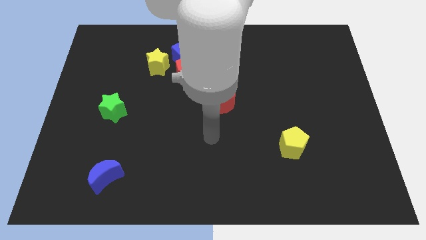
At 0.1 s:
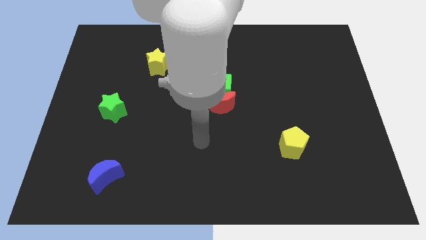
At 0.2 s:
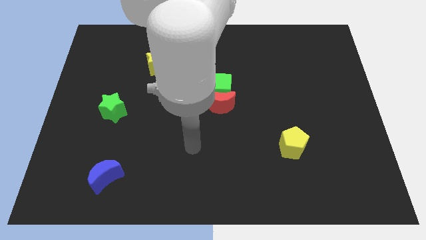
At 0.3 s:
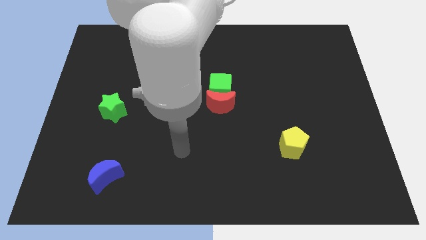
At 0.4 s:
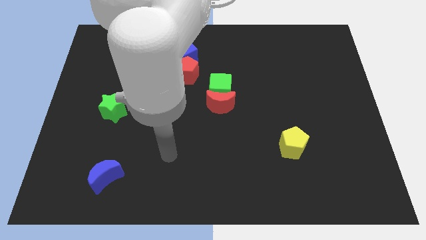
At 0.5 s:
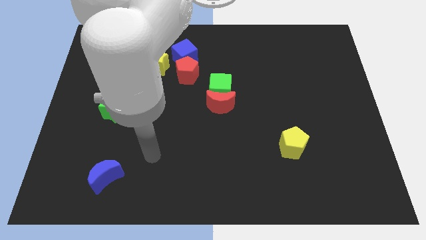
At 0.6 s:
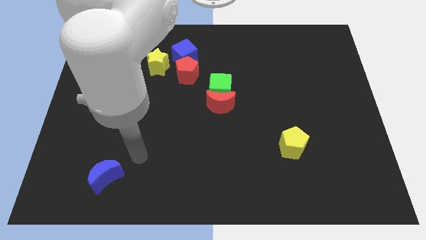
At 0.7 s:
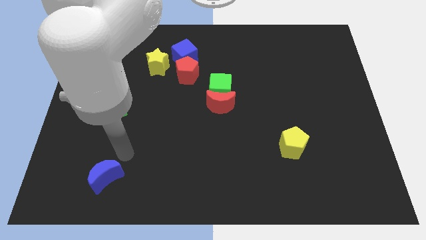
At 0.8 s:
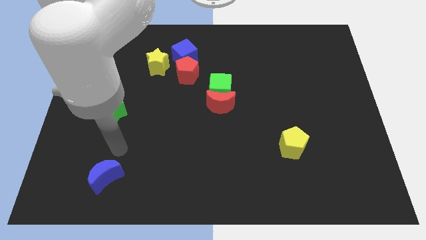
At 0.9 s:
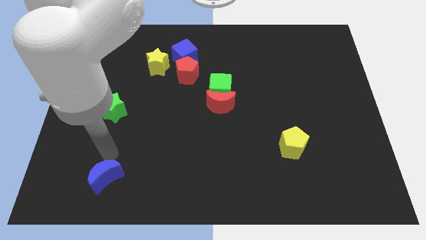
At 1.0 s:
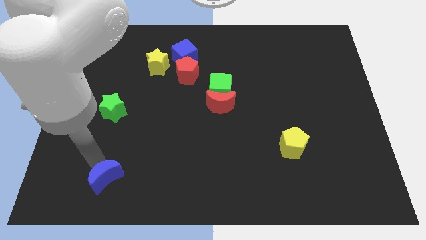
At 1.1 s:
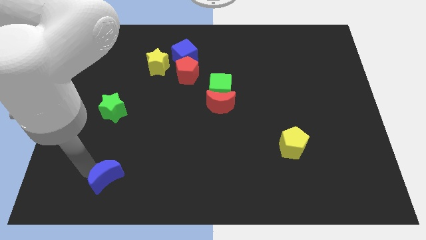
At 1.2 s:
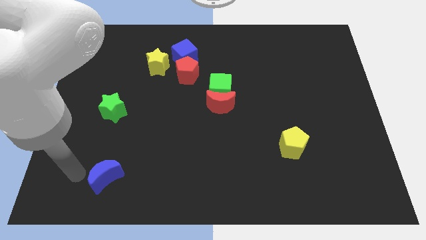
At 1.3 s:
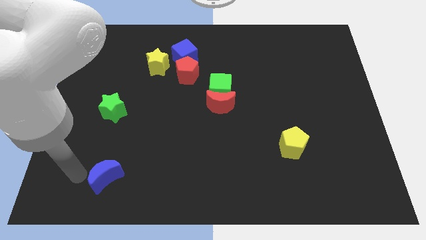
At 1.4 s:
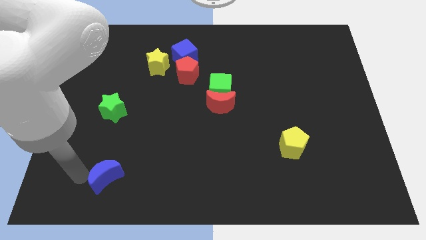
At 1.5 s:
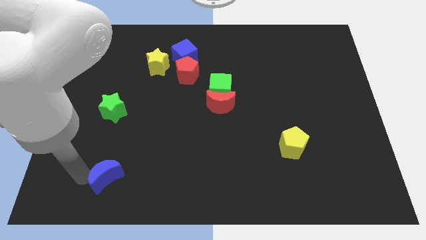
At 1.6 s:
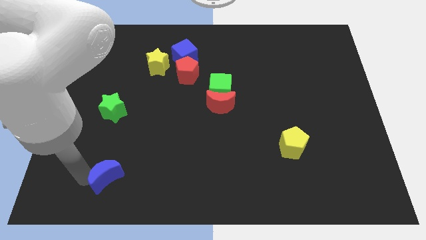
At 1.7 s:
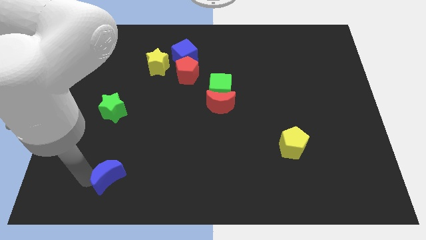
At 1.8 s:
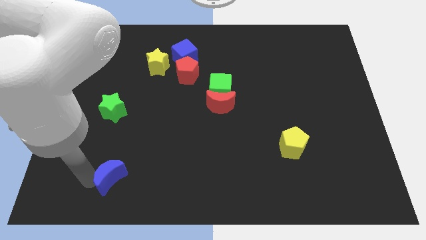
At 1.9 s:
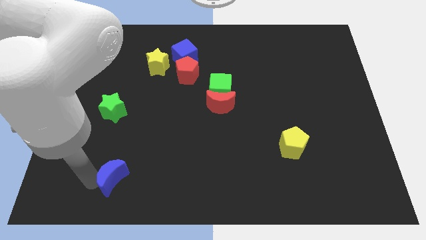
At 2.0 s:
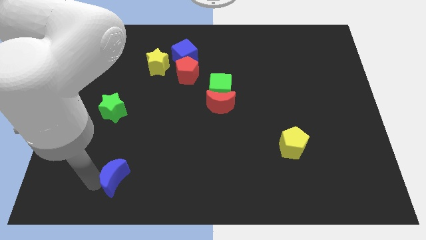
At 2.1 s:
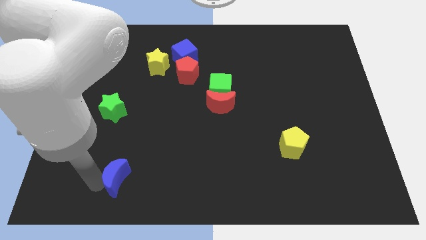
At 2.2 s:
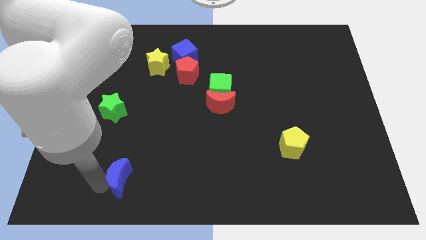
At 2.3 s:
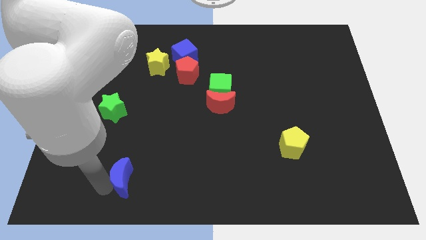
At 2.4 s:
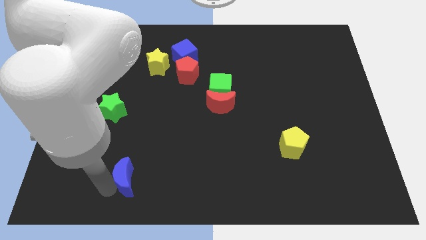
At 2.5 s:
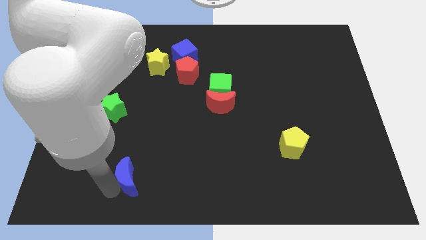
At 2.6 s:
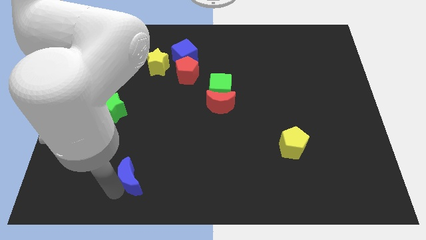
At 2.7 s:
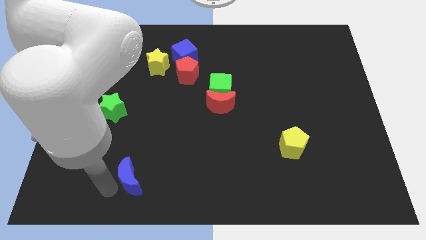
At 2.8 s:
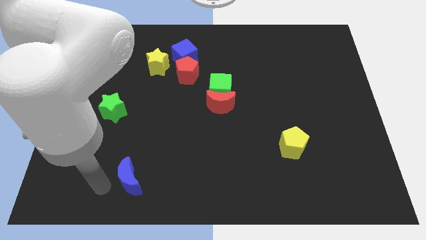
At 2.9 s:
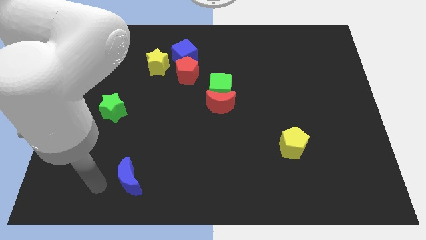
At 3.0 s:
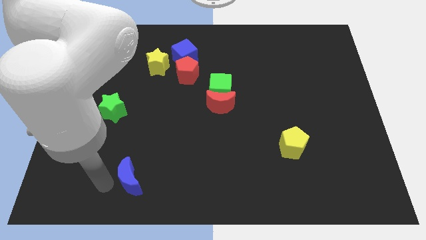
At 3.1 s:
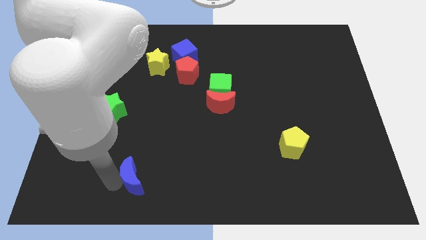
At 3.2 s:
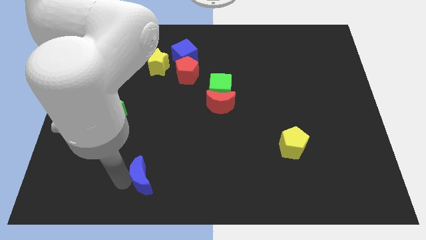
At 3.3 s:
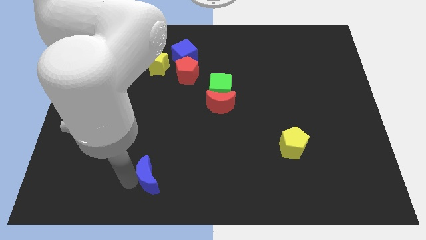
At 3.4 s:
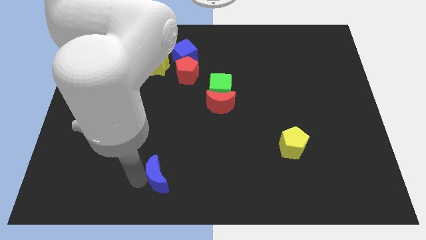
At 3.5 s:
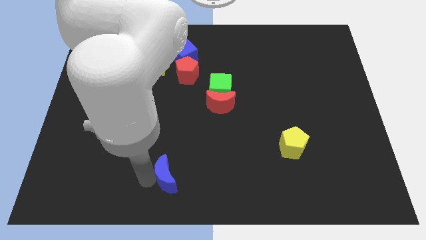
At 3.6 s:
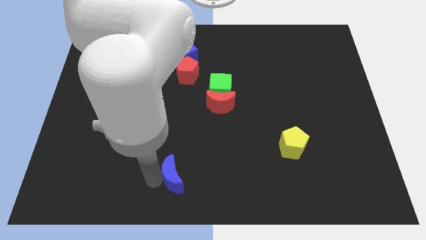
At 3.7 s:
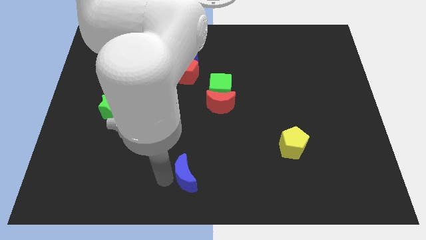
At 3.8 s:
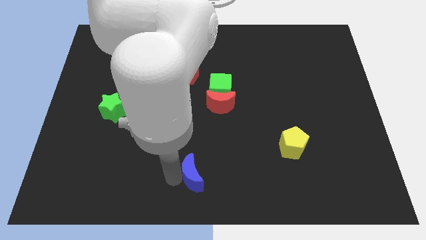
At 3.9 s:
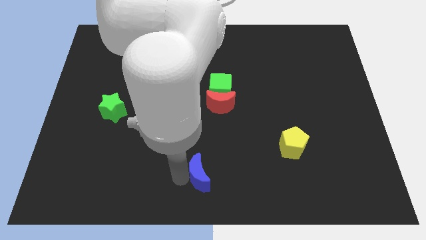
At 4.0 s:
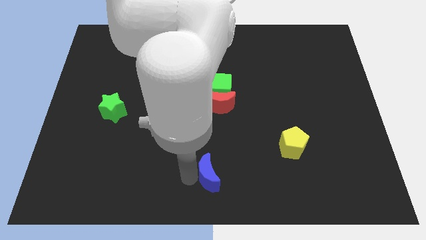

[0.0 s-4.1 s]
slide the blue moon to the right

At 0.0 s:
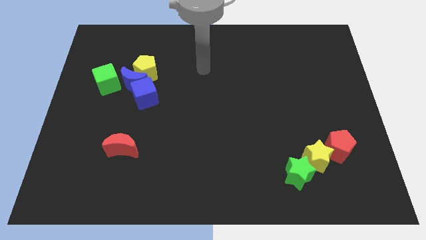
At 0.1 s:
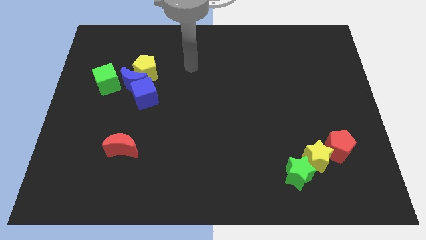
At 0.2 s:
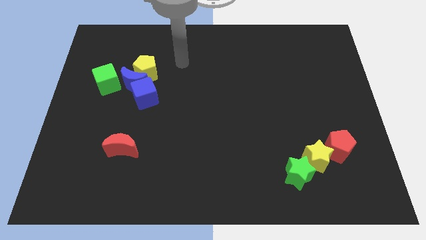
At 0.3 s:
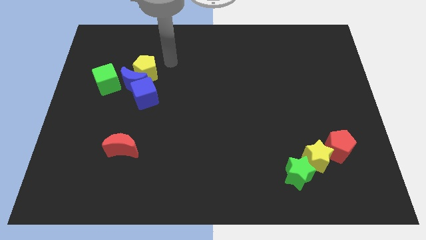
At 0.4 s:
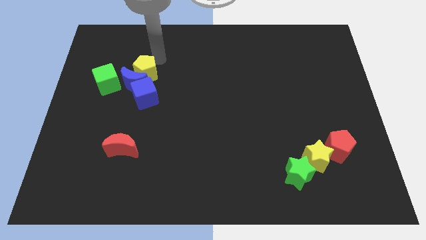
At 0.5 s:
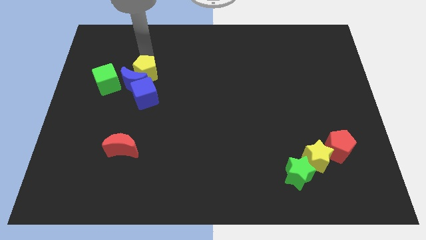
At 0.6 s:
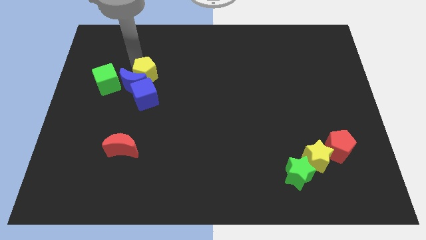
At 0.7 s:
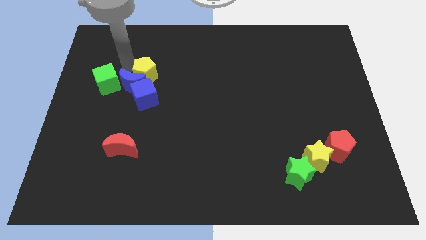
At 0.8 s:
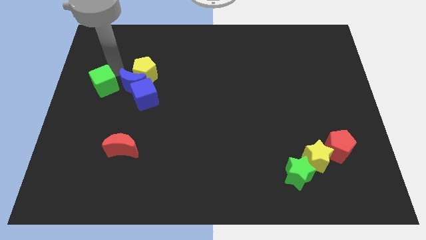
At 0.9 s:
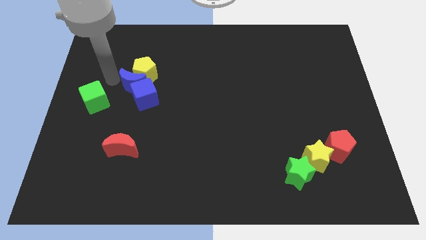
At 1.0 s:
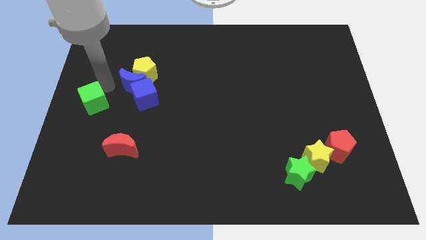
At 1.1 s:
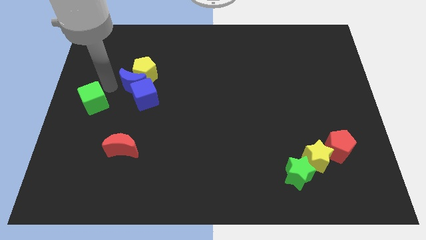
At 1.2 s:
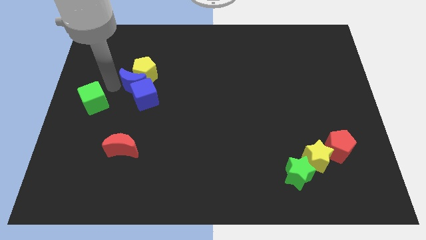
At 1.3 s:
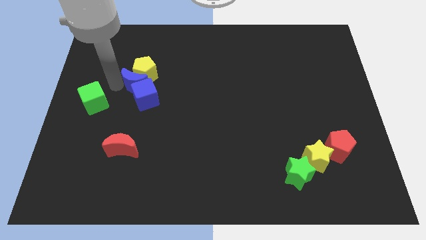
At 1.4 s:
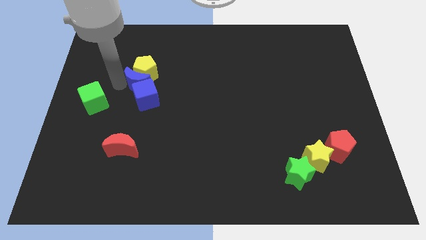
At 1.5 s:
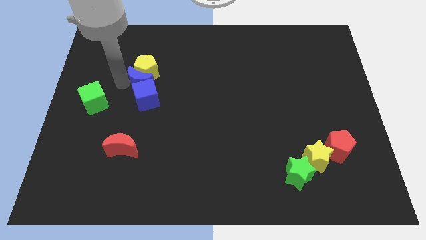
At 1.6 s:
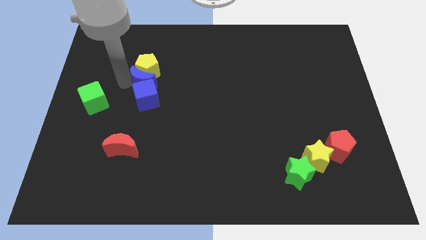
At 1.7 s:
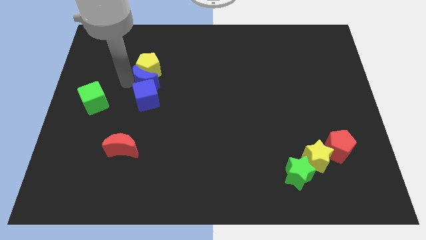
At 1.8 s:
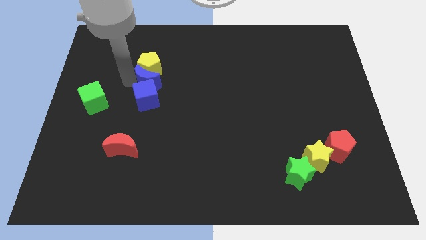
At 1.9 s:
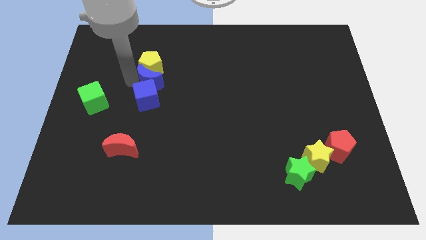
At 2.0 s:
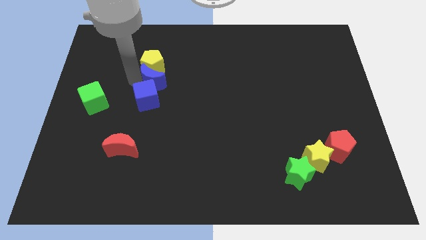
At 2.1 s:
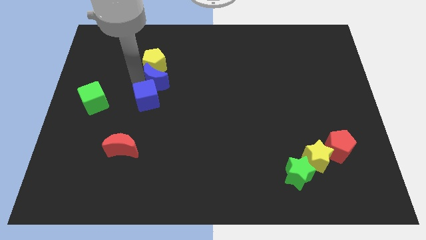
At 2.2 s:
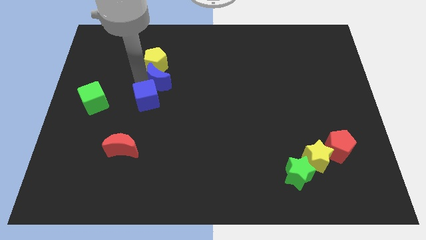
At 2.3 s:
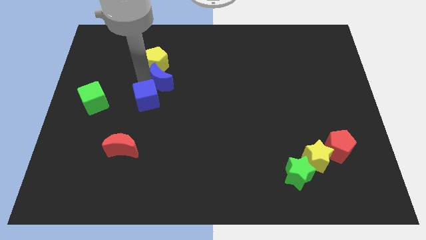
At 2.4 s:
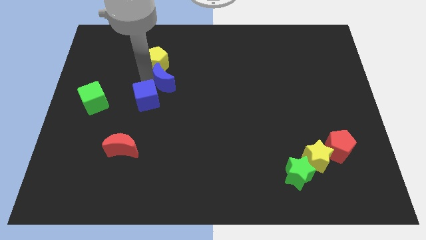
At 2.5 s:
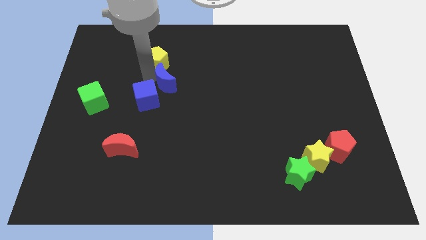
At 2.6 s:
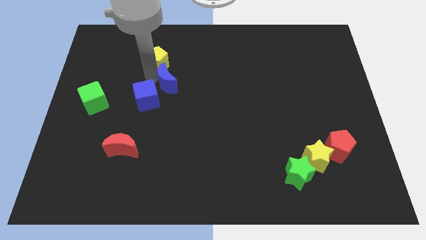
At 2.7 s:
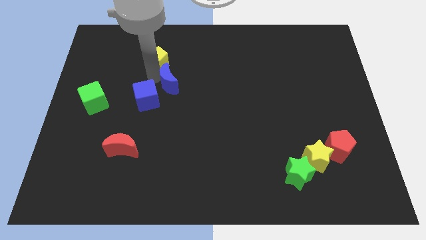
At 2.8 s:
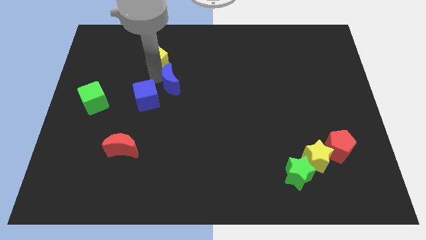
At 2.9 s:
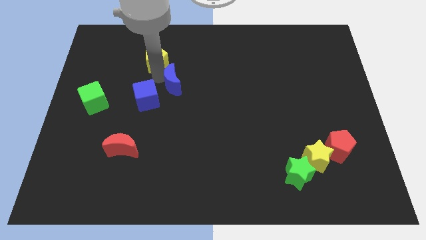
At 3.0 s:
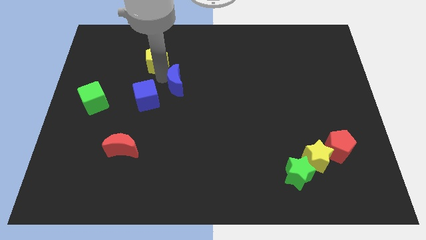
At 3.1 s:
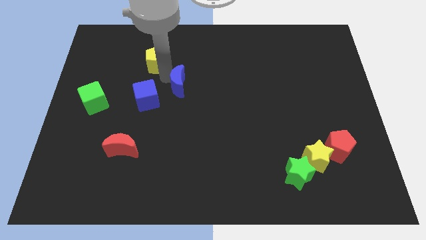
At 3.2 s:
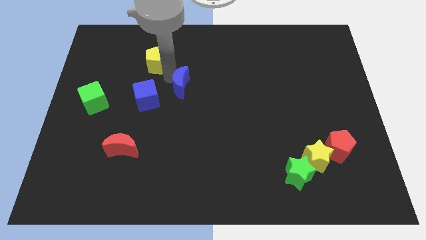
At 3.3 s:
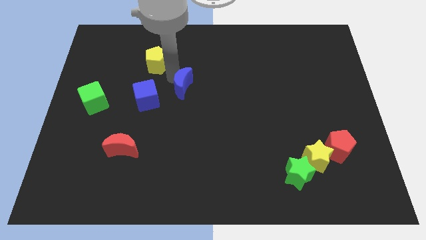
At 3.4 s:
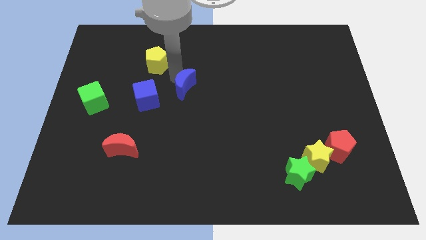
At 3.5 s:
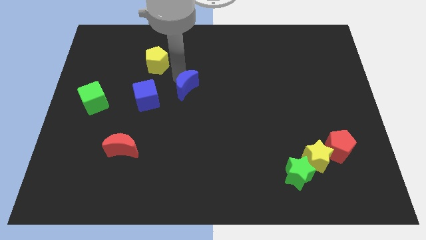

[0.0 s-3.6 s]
slightly push the blue moon downwards and to the right diagonally

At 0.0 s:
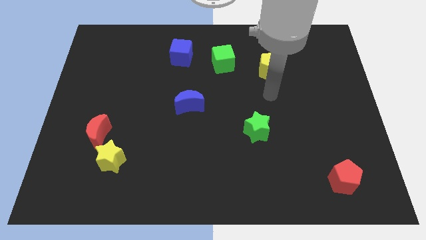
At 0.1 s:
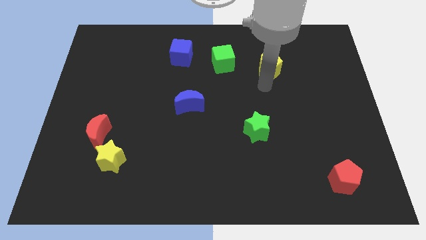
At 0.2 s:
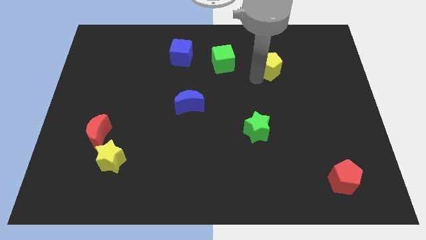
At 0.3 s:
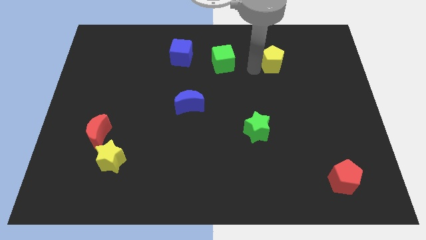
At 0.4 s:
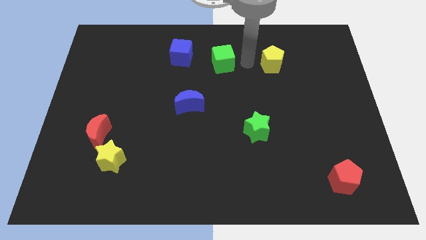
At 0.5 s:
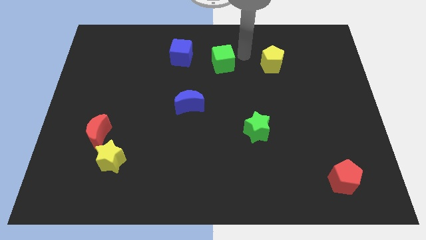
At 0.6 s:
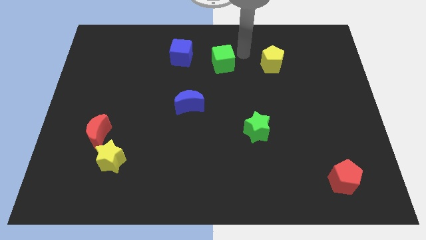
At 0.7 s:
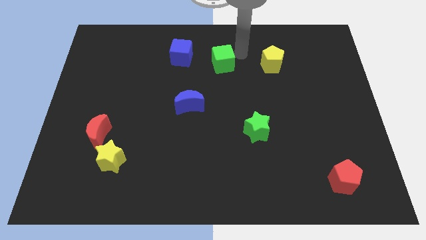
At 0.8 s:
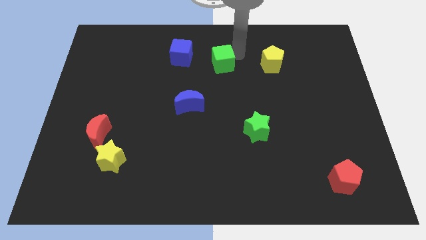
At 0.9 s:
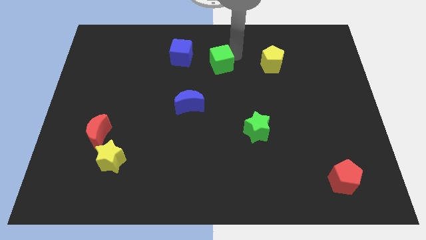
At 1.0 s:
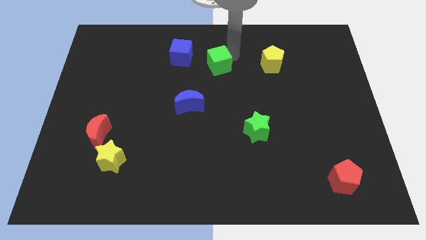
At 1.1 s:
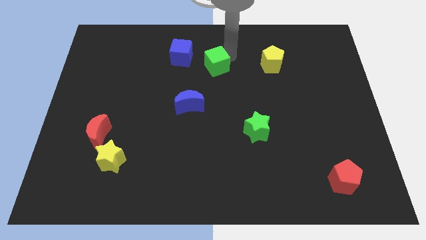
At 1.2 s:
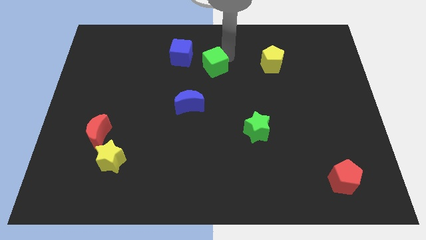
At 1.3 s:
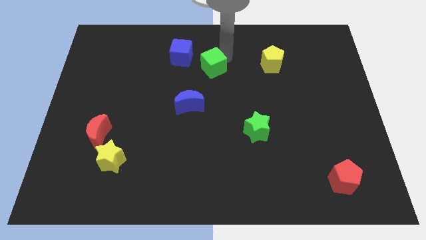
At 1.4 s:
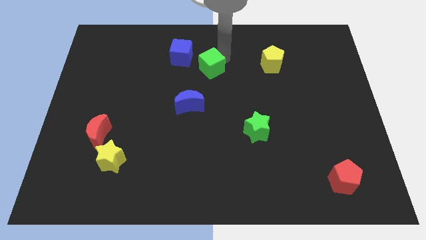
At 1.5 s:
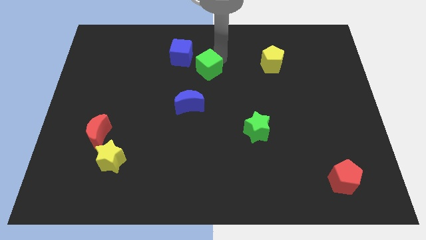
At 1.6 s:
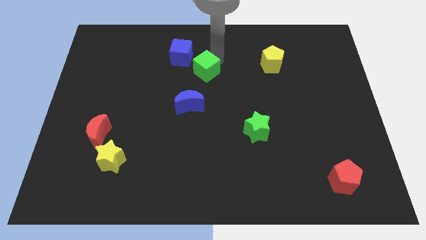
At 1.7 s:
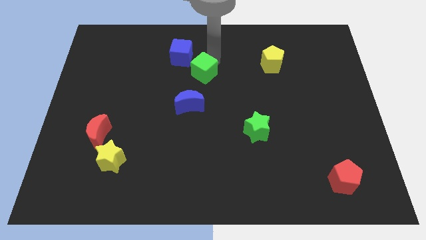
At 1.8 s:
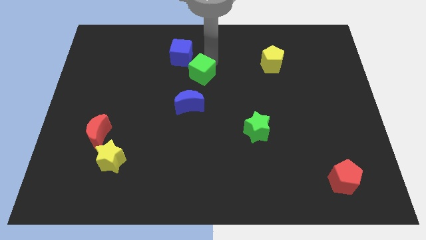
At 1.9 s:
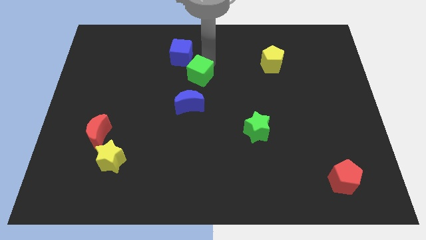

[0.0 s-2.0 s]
slightly move the green cube downwards and then left
